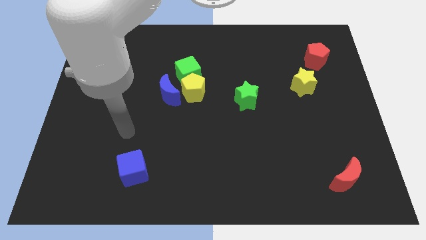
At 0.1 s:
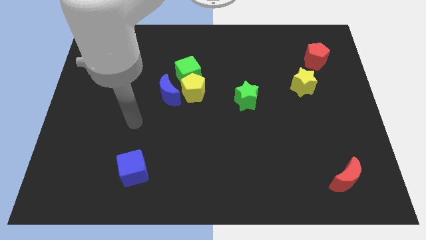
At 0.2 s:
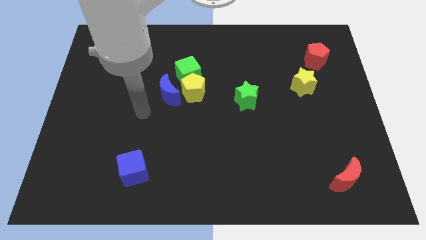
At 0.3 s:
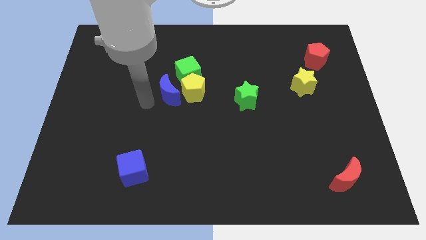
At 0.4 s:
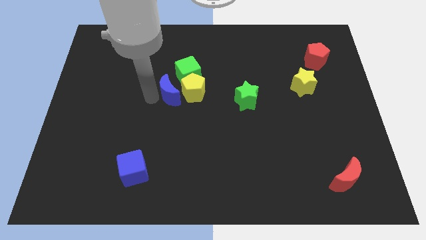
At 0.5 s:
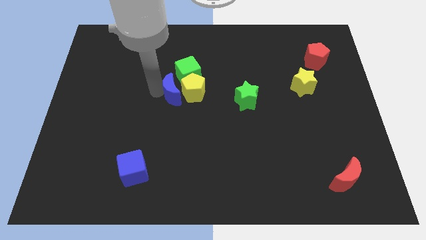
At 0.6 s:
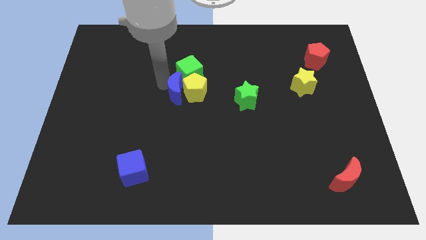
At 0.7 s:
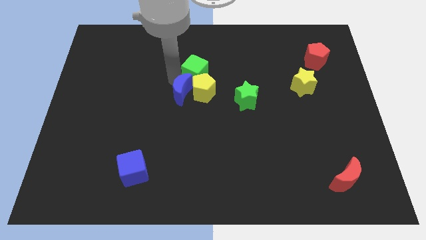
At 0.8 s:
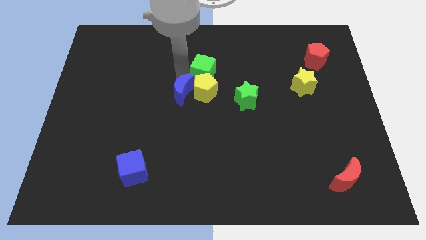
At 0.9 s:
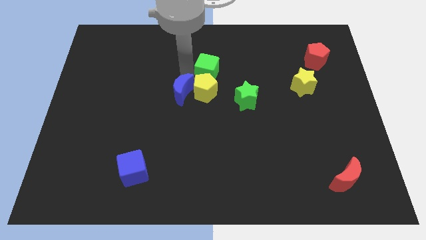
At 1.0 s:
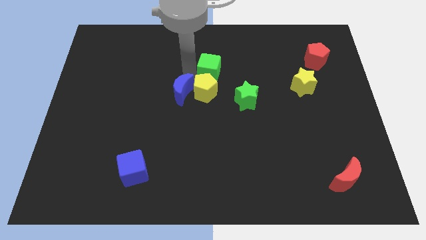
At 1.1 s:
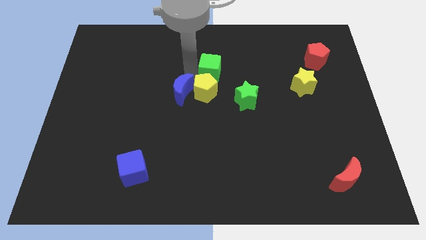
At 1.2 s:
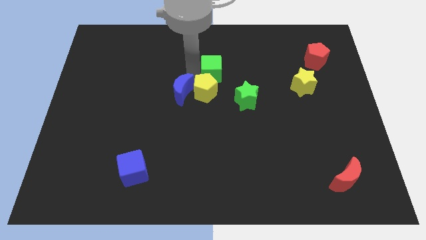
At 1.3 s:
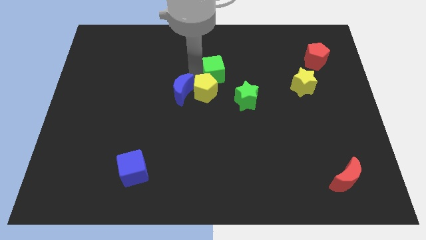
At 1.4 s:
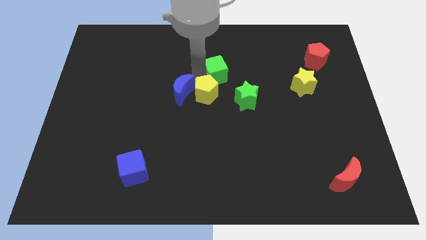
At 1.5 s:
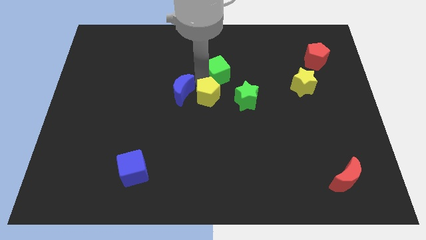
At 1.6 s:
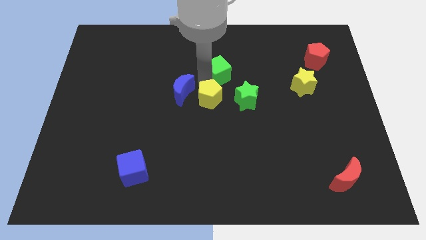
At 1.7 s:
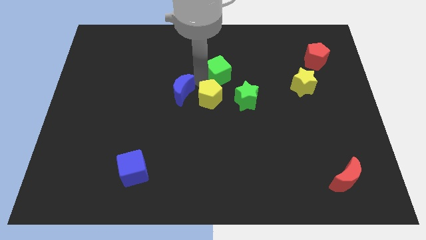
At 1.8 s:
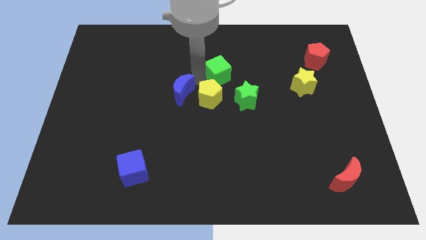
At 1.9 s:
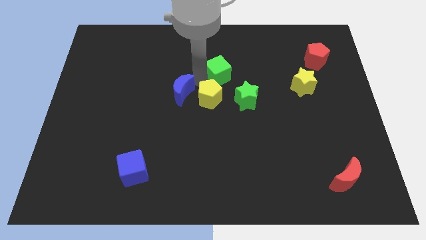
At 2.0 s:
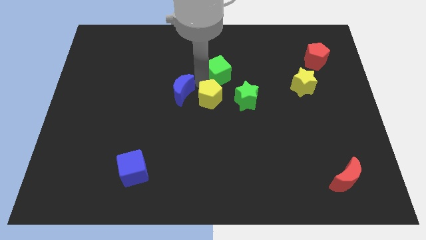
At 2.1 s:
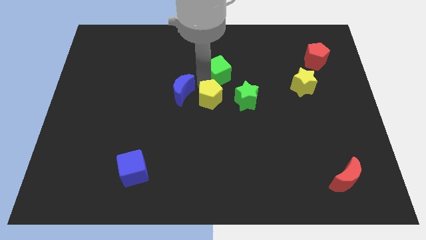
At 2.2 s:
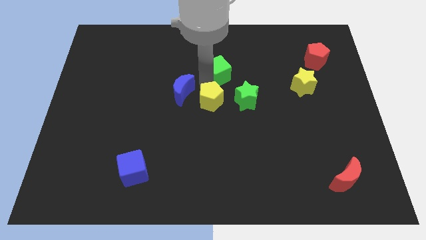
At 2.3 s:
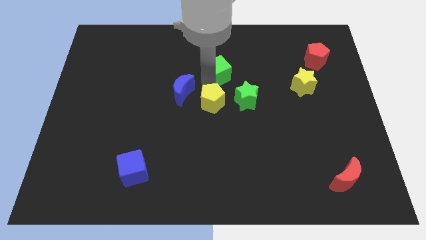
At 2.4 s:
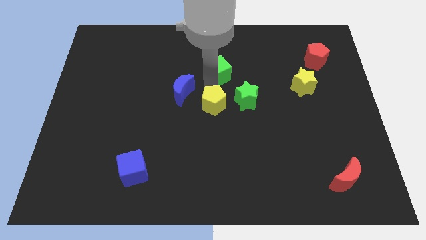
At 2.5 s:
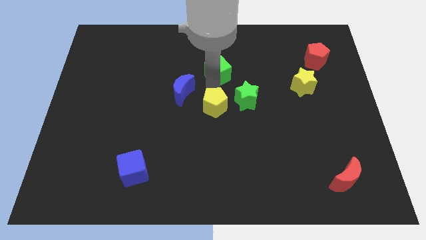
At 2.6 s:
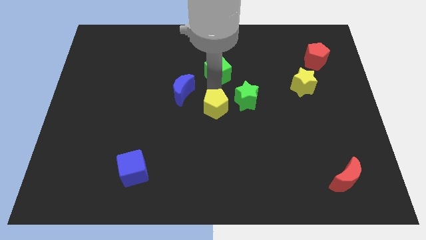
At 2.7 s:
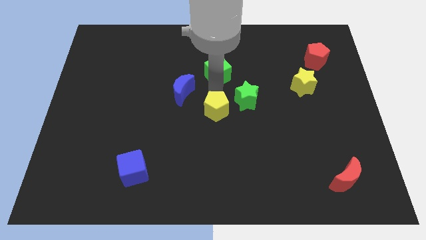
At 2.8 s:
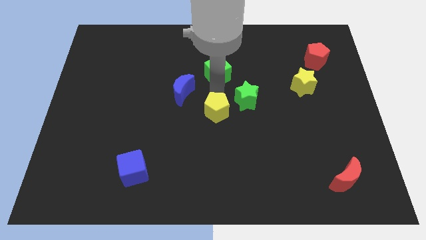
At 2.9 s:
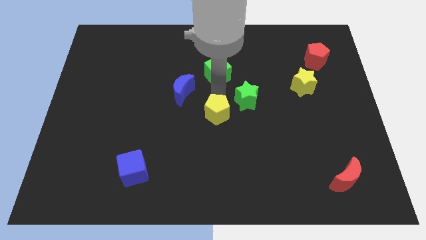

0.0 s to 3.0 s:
separate the yellow pentagon from the green cube and blue moon

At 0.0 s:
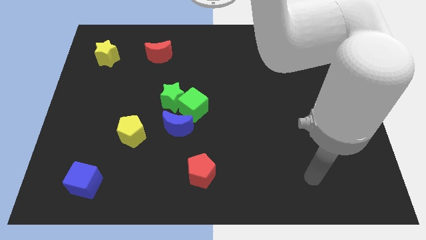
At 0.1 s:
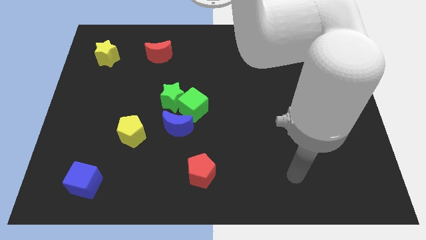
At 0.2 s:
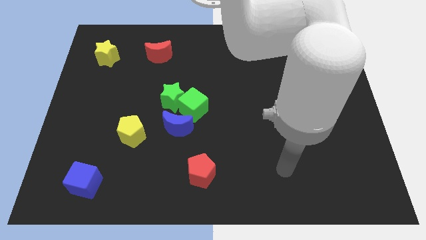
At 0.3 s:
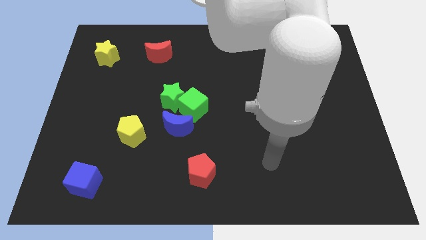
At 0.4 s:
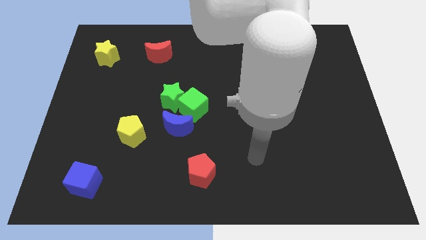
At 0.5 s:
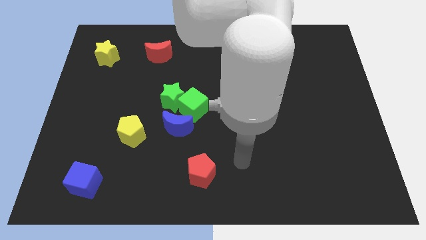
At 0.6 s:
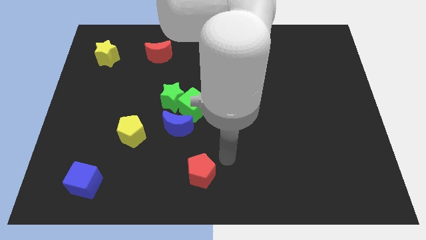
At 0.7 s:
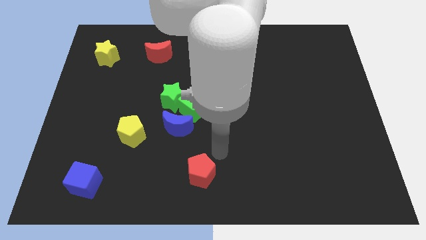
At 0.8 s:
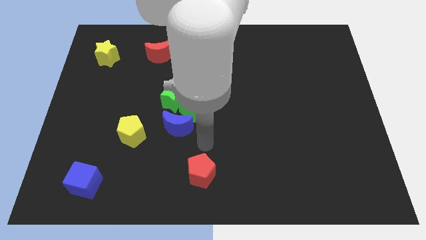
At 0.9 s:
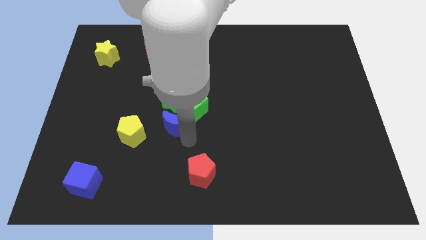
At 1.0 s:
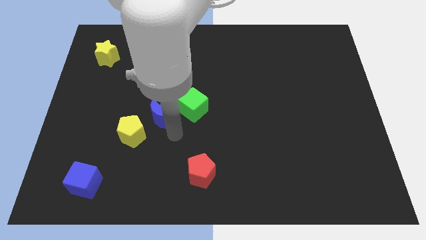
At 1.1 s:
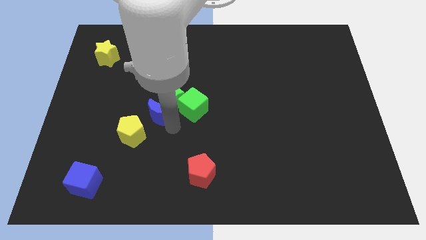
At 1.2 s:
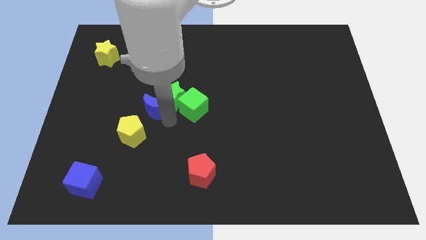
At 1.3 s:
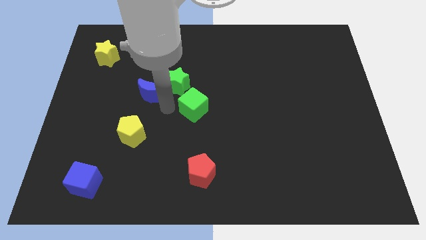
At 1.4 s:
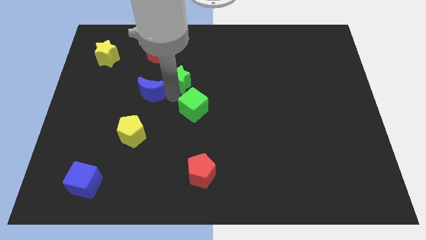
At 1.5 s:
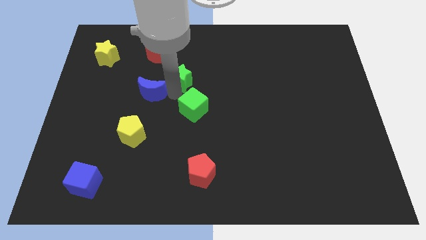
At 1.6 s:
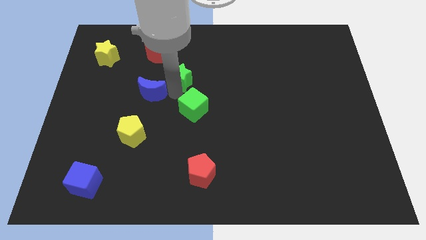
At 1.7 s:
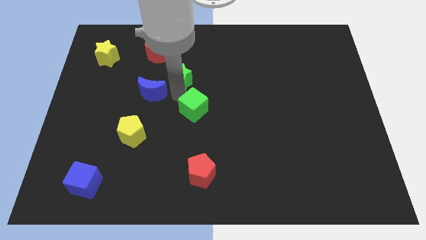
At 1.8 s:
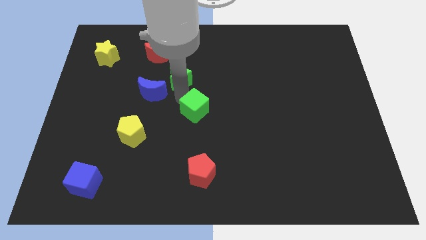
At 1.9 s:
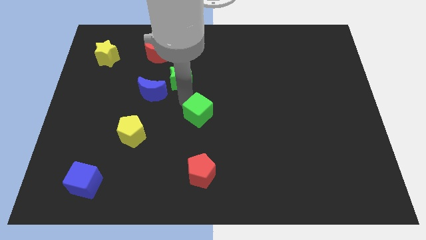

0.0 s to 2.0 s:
separate the green cube from the green star and blue moon

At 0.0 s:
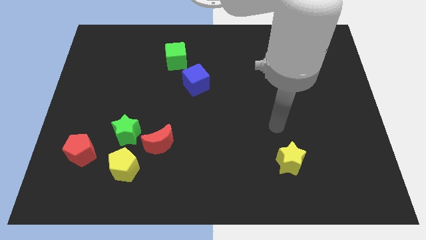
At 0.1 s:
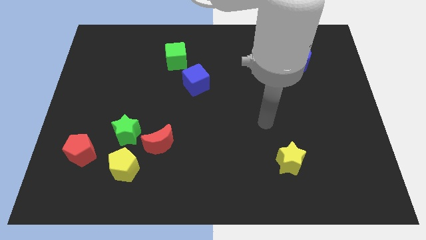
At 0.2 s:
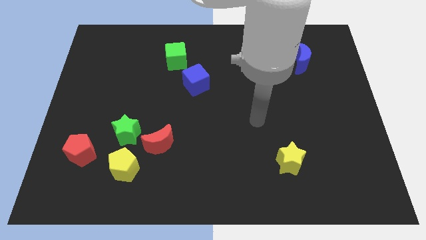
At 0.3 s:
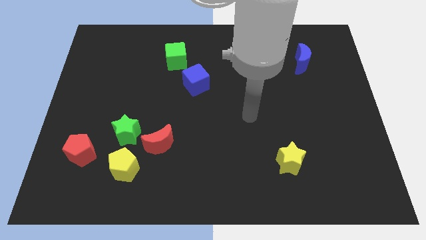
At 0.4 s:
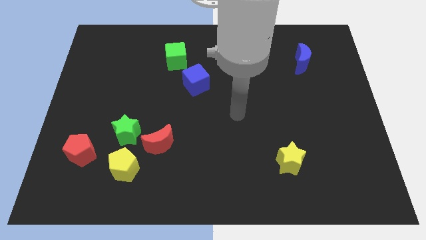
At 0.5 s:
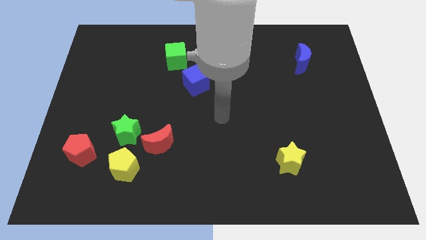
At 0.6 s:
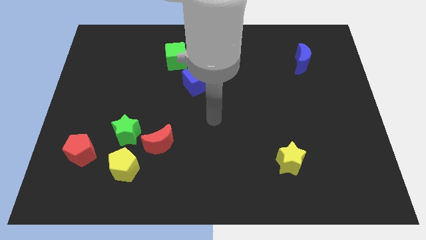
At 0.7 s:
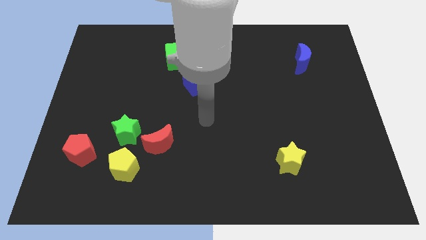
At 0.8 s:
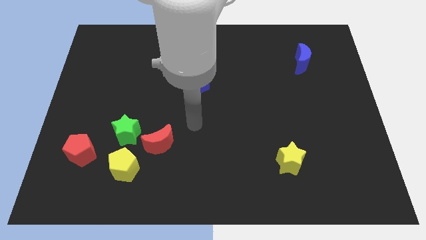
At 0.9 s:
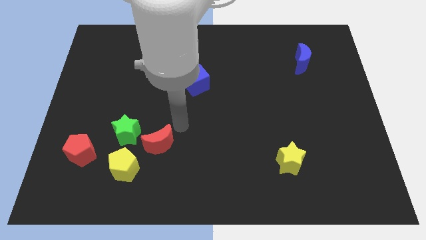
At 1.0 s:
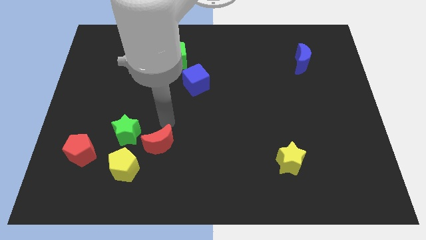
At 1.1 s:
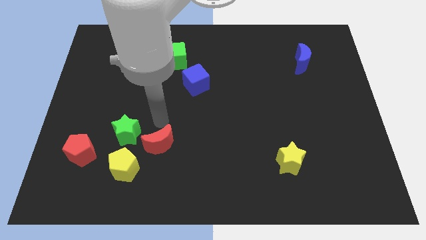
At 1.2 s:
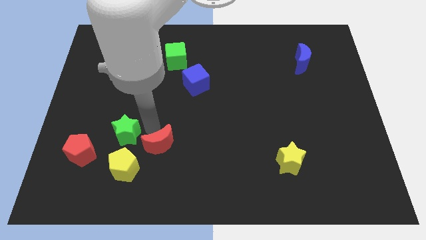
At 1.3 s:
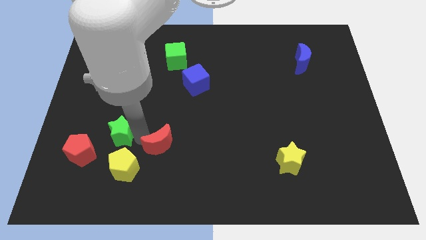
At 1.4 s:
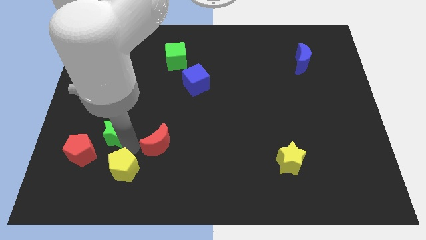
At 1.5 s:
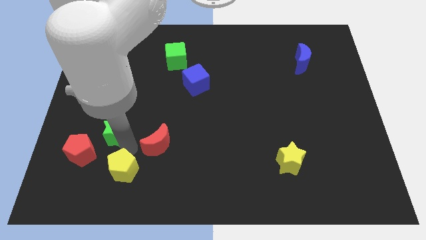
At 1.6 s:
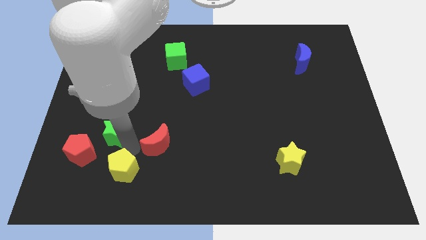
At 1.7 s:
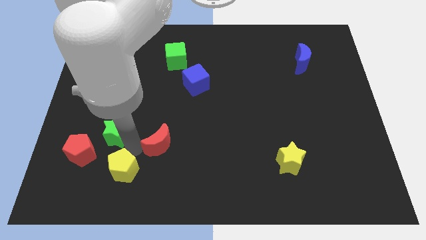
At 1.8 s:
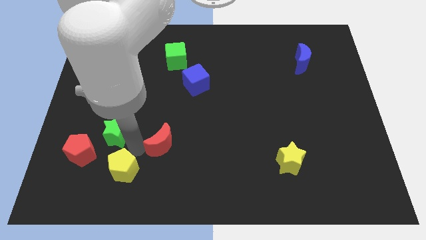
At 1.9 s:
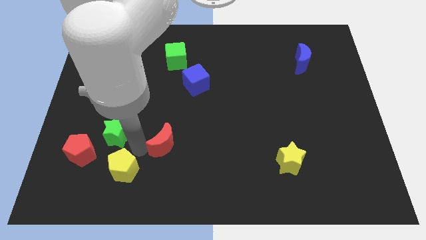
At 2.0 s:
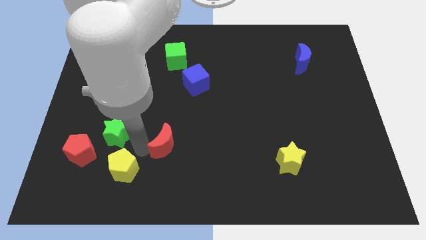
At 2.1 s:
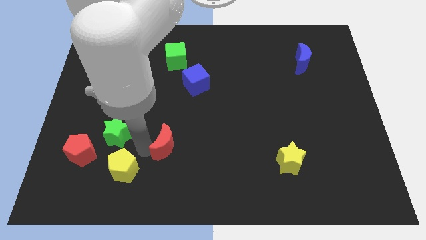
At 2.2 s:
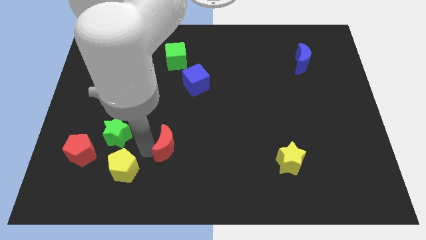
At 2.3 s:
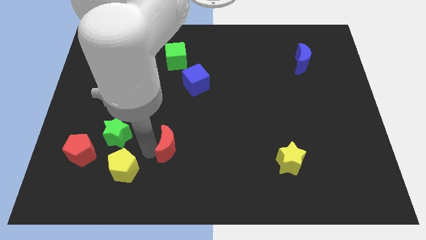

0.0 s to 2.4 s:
pull the red moon apart from the green star and yellow pentagon

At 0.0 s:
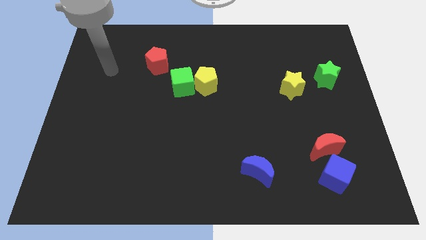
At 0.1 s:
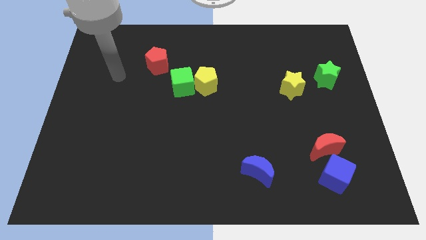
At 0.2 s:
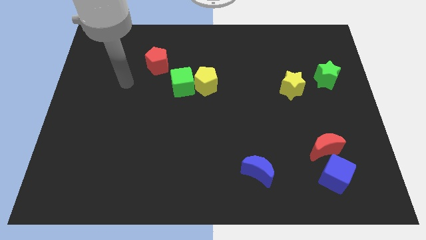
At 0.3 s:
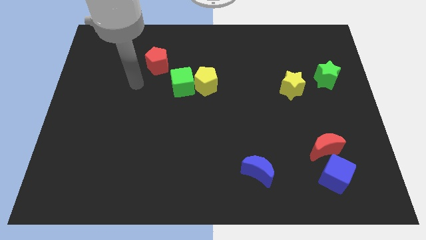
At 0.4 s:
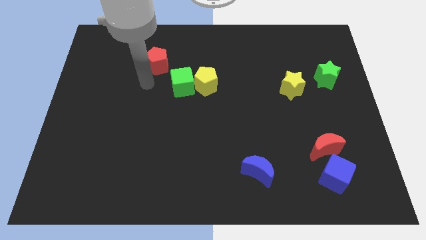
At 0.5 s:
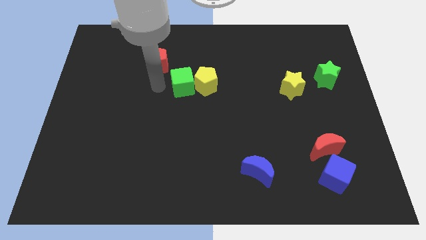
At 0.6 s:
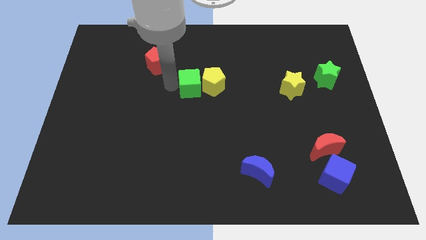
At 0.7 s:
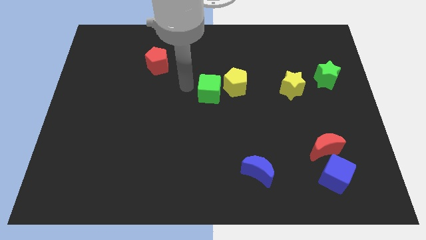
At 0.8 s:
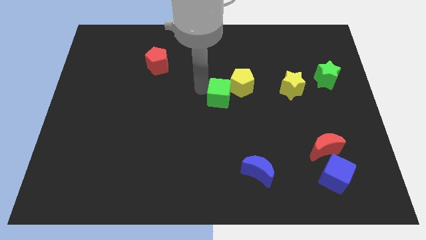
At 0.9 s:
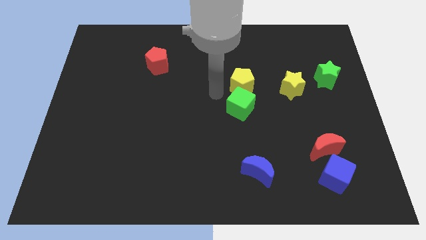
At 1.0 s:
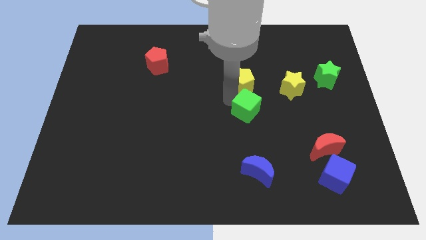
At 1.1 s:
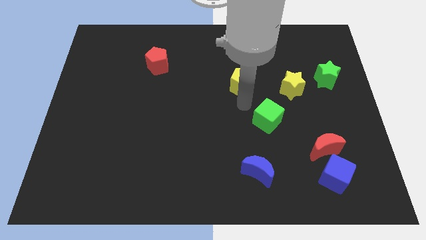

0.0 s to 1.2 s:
move the yellow pentagon away from the green cube

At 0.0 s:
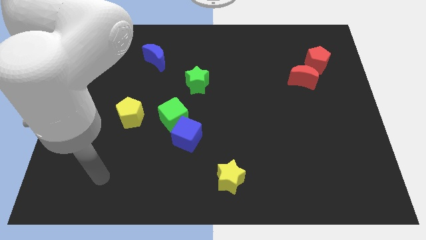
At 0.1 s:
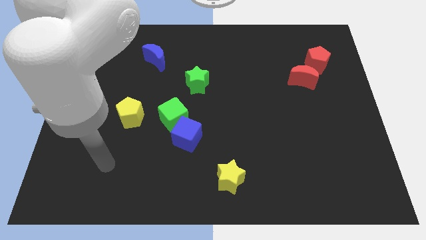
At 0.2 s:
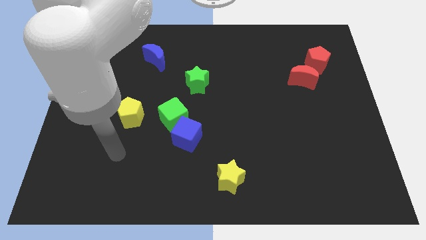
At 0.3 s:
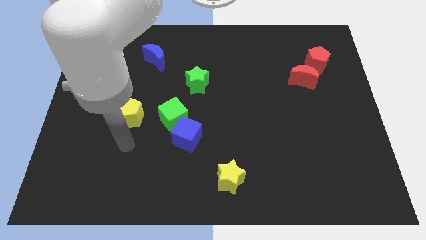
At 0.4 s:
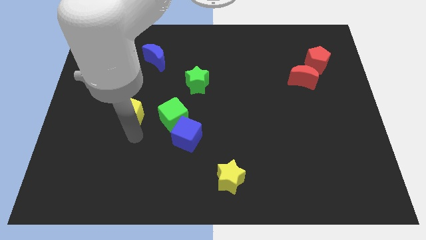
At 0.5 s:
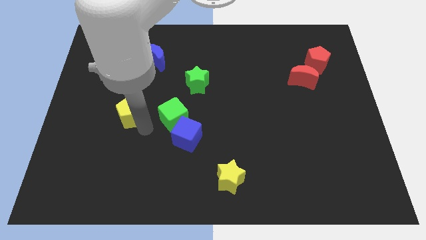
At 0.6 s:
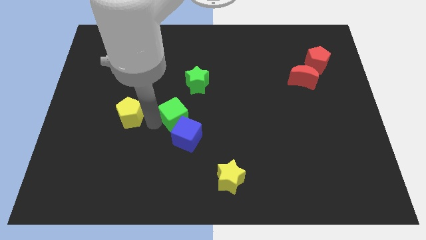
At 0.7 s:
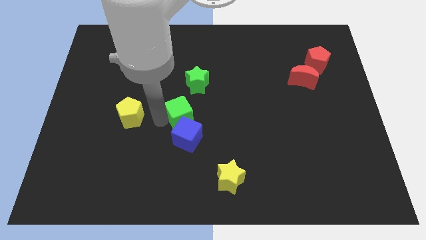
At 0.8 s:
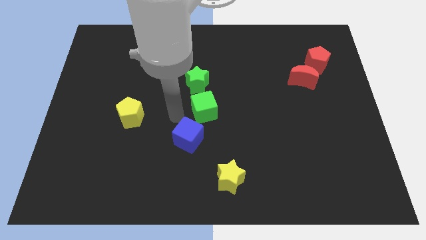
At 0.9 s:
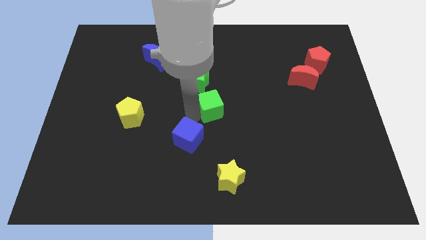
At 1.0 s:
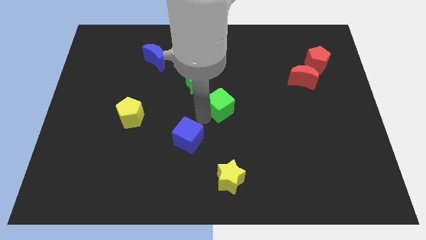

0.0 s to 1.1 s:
move the blue cube away from the green cube
